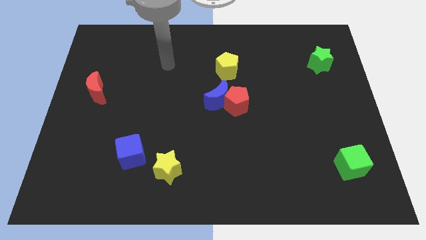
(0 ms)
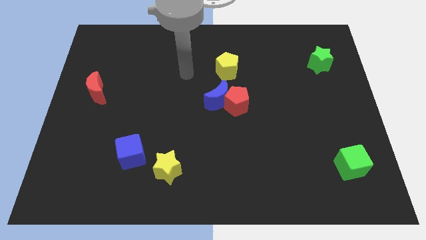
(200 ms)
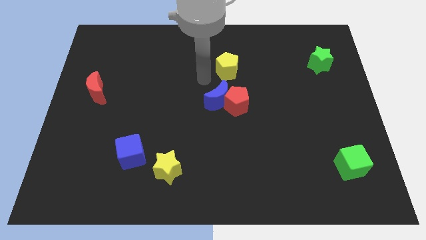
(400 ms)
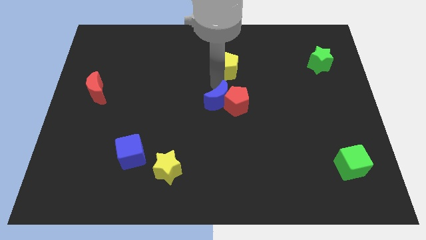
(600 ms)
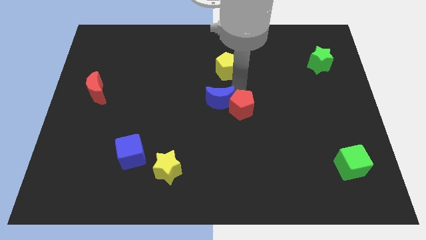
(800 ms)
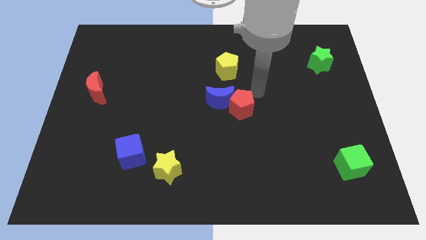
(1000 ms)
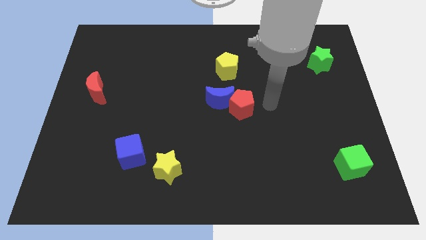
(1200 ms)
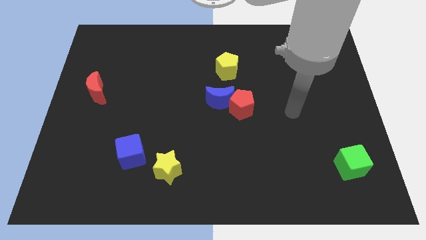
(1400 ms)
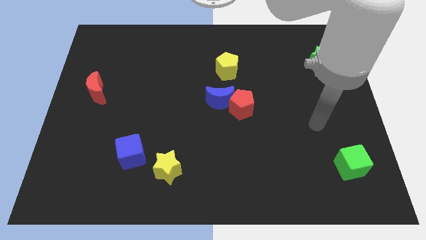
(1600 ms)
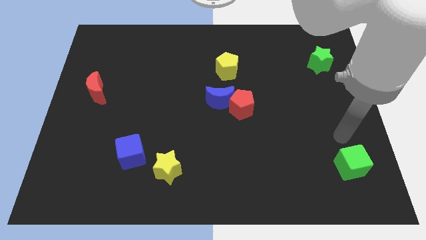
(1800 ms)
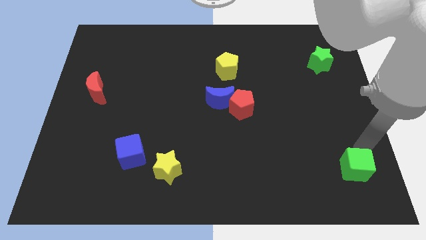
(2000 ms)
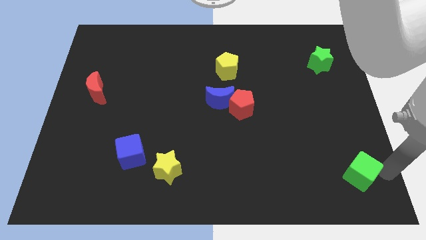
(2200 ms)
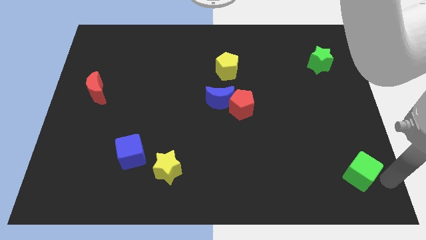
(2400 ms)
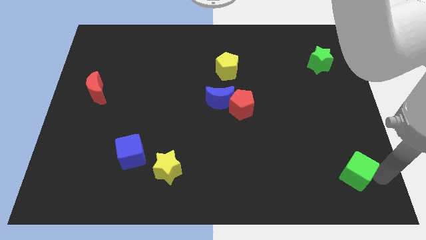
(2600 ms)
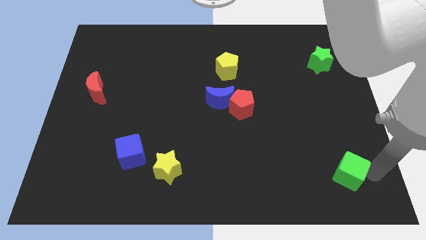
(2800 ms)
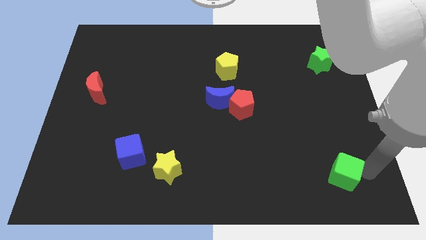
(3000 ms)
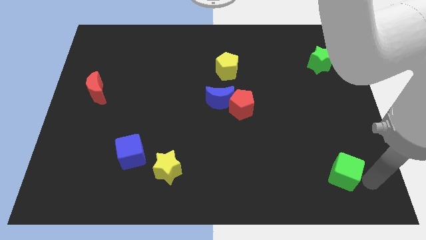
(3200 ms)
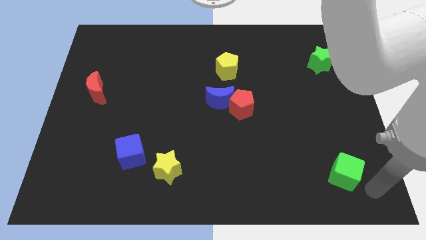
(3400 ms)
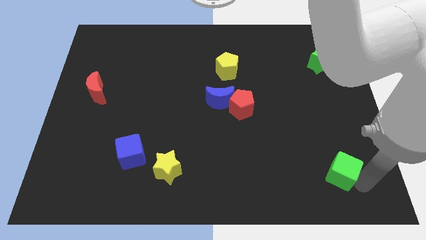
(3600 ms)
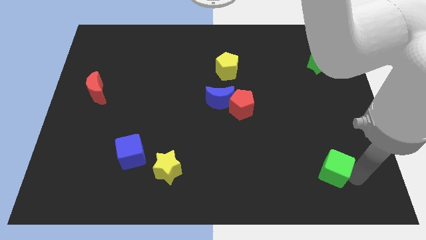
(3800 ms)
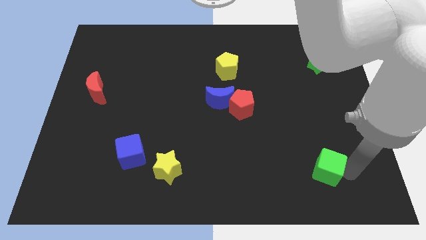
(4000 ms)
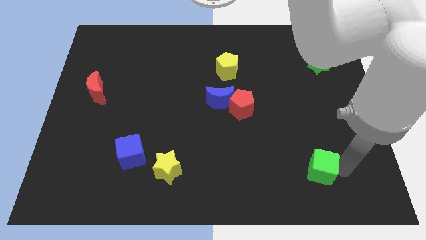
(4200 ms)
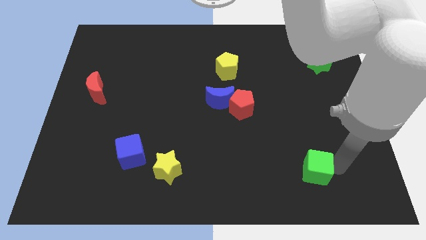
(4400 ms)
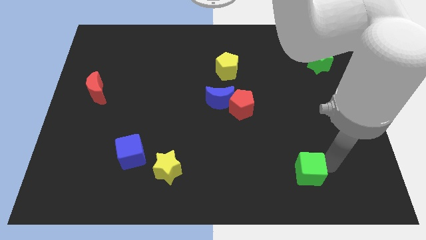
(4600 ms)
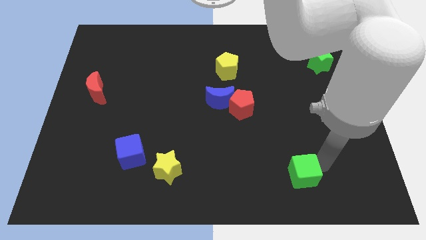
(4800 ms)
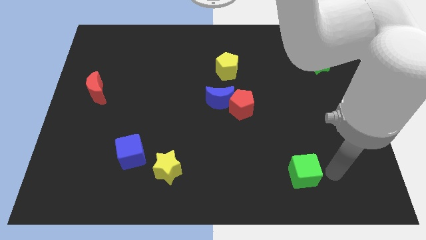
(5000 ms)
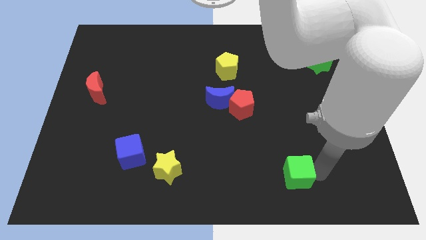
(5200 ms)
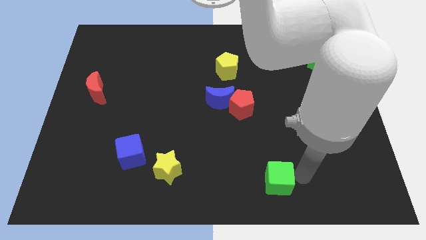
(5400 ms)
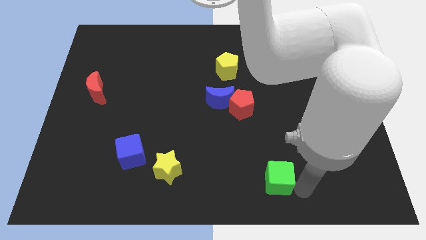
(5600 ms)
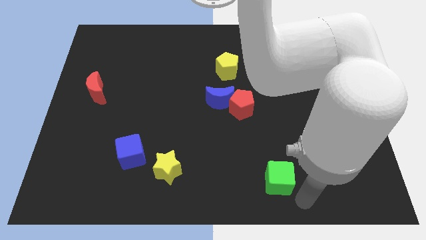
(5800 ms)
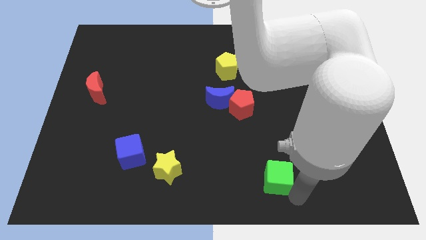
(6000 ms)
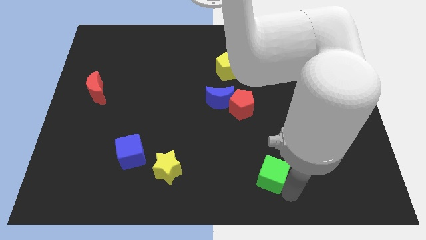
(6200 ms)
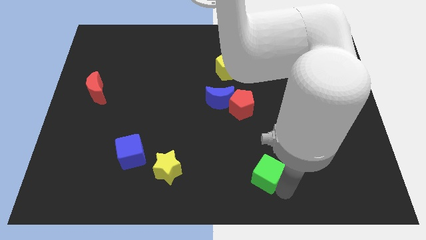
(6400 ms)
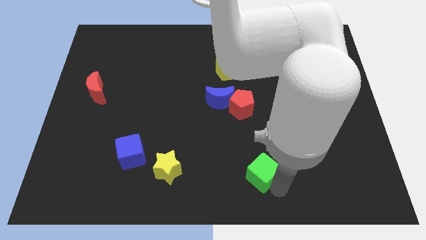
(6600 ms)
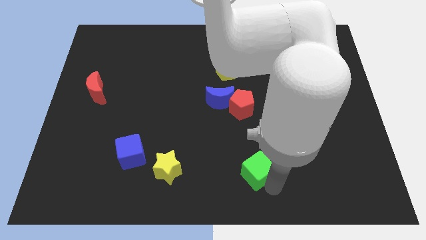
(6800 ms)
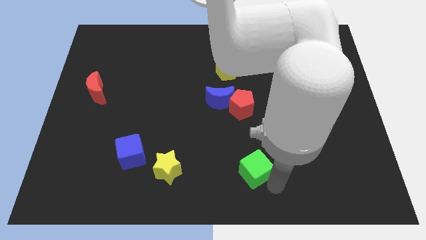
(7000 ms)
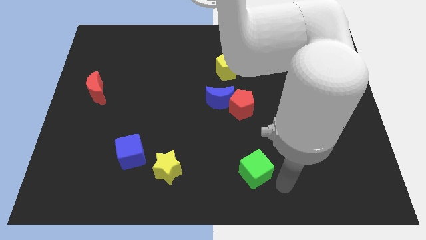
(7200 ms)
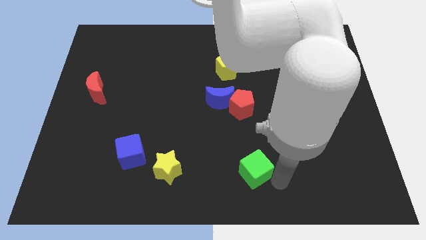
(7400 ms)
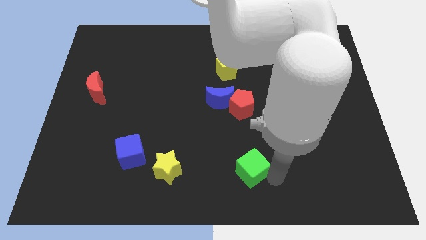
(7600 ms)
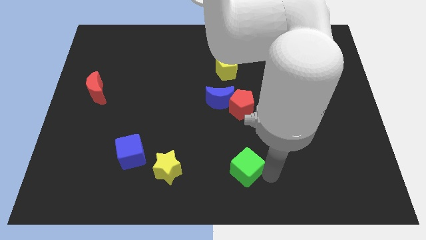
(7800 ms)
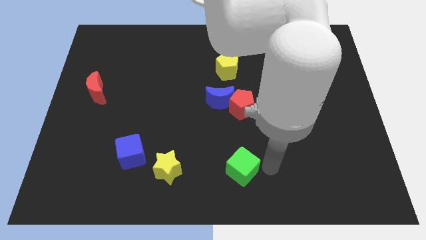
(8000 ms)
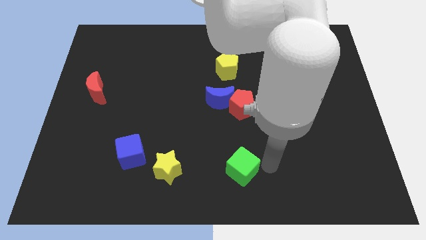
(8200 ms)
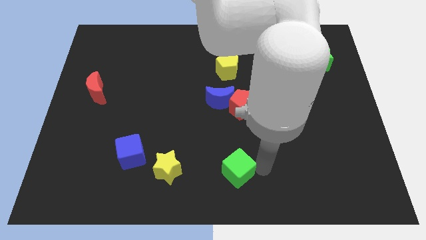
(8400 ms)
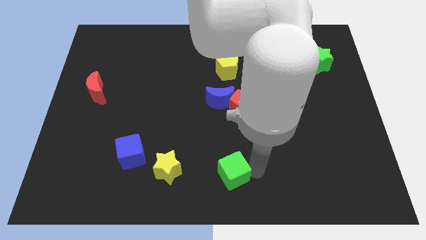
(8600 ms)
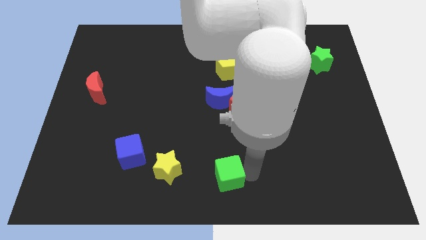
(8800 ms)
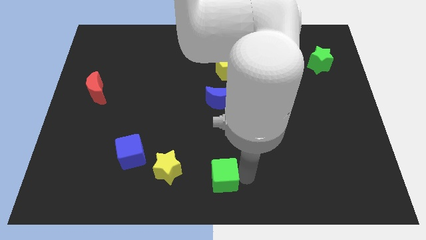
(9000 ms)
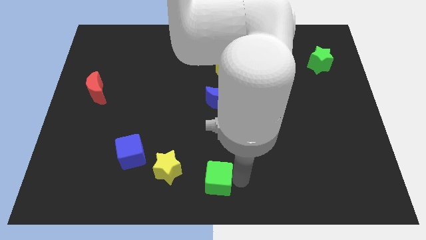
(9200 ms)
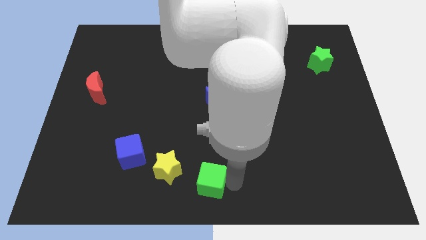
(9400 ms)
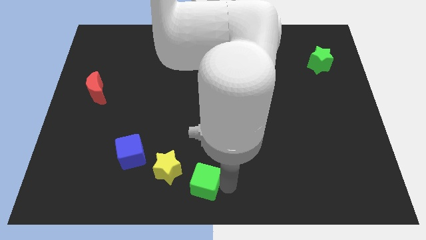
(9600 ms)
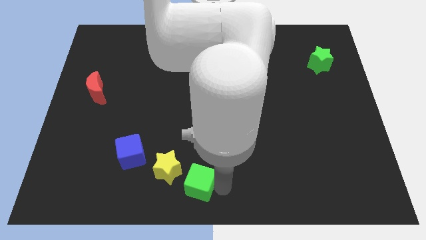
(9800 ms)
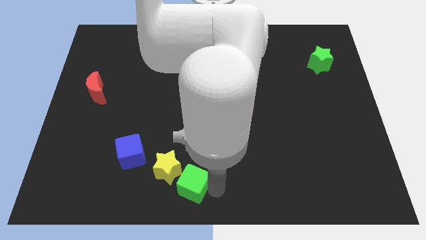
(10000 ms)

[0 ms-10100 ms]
move the green cube next to the yellow star

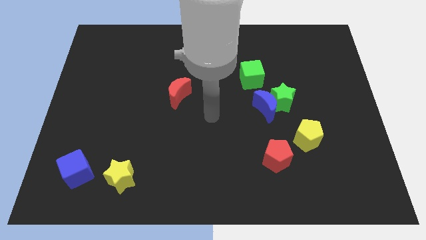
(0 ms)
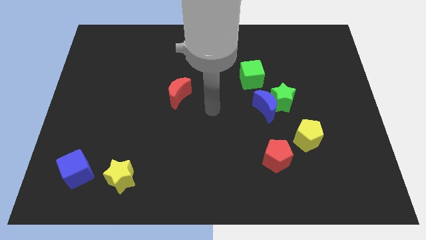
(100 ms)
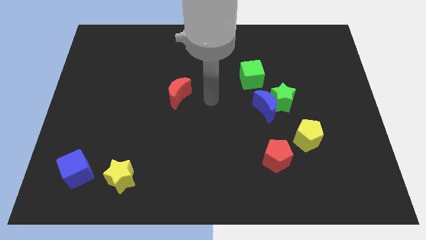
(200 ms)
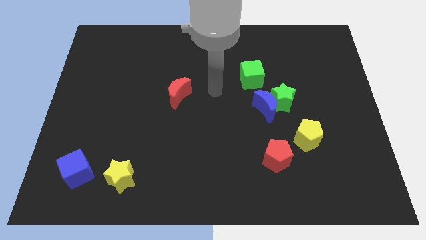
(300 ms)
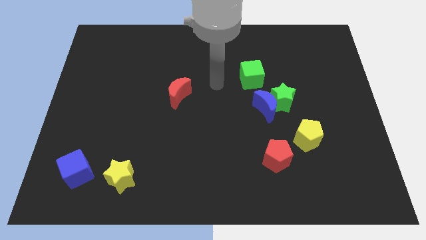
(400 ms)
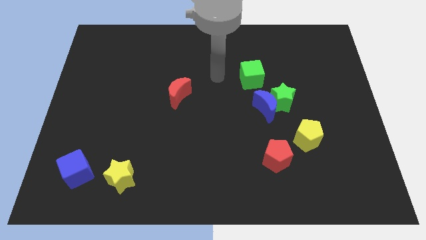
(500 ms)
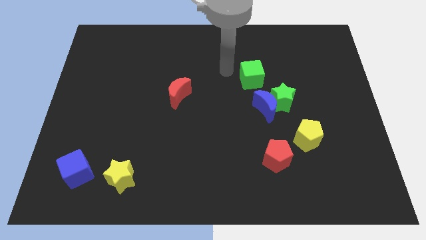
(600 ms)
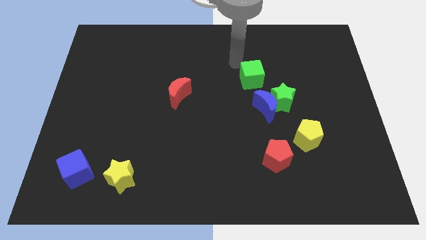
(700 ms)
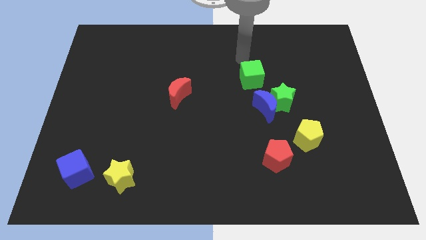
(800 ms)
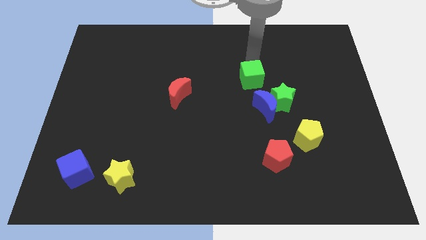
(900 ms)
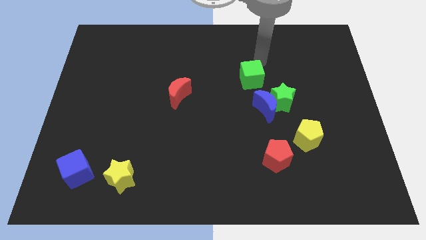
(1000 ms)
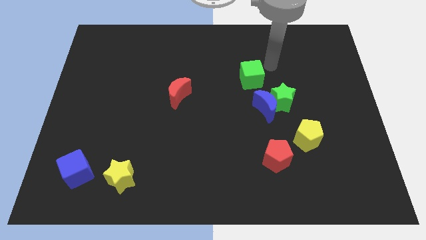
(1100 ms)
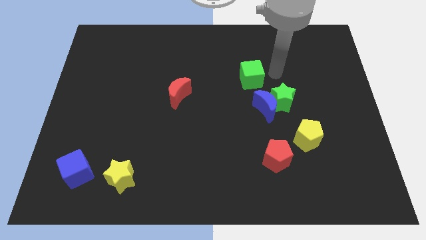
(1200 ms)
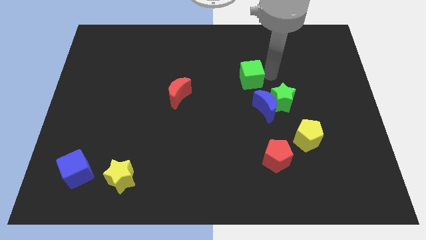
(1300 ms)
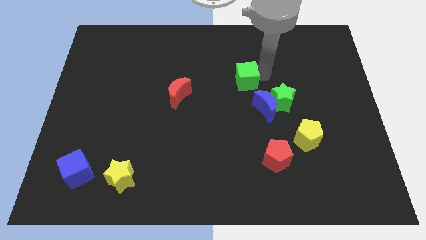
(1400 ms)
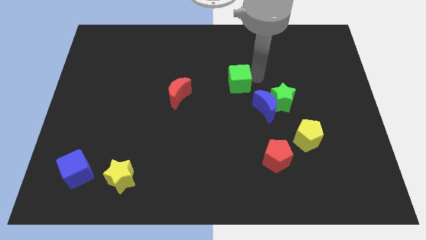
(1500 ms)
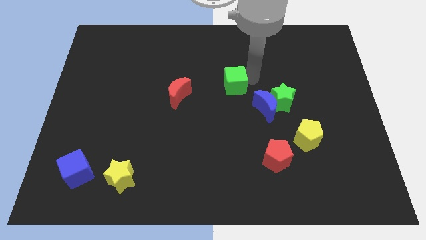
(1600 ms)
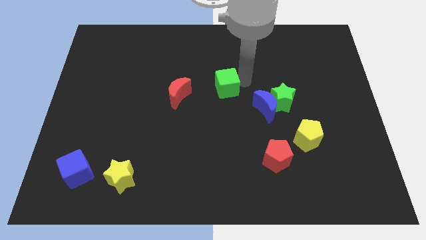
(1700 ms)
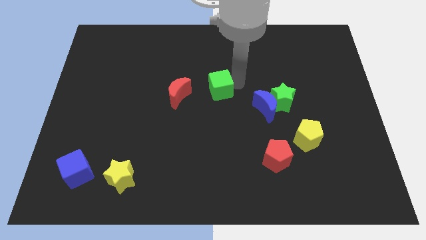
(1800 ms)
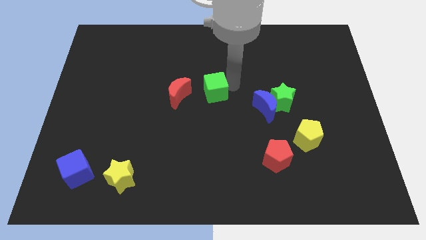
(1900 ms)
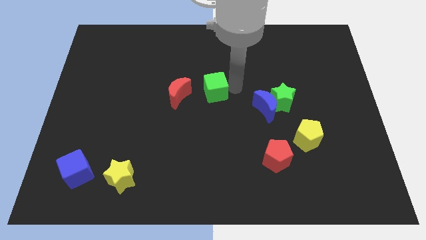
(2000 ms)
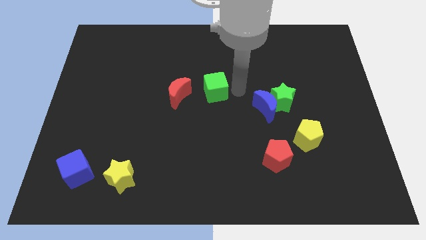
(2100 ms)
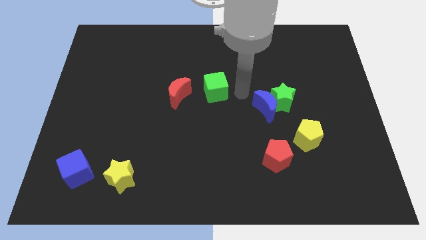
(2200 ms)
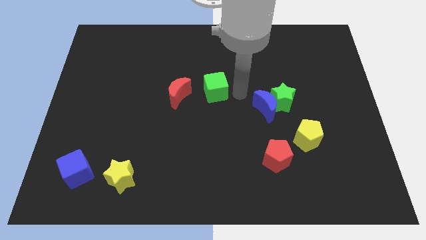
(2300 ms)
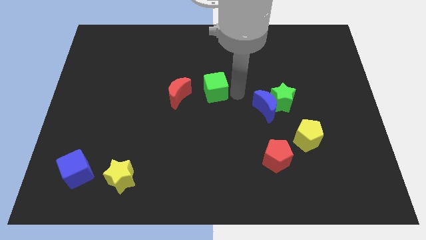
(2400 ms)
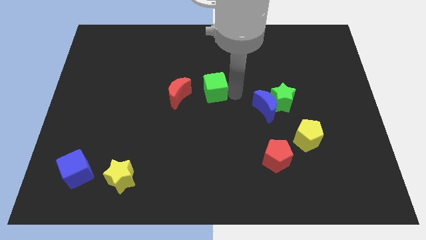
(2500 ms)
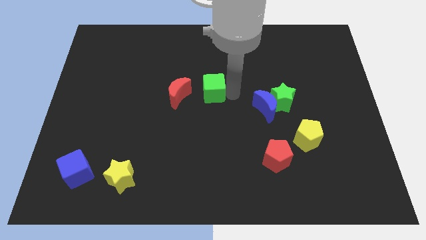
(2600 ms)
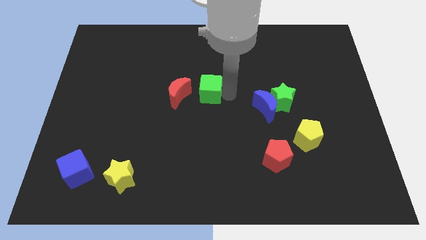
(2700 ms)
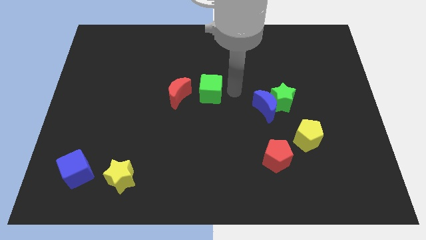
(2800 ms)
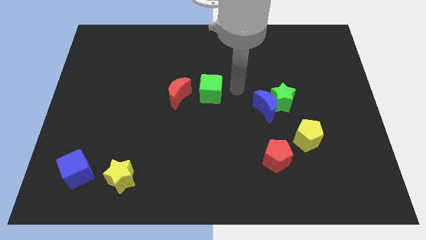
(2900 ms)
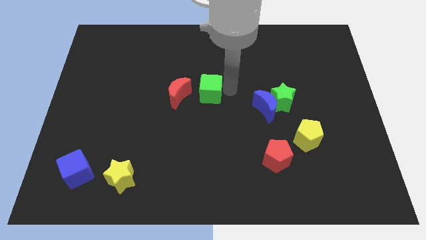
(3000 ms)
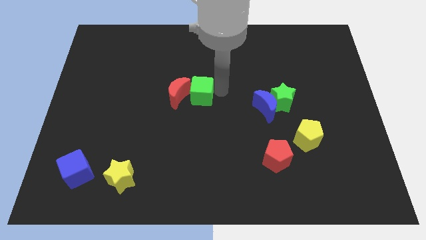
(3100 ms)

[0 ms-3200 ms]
put the green cube next to the red moon
